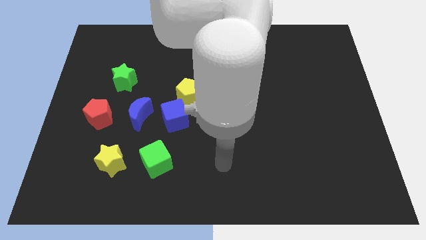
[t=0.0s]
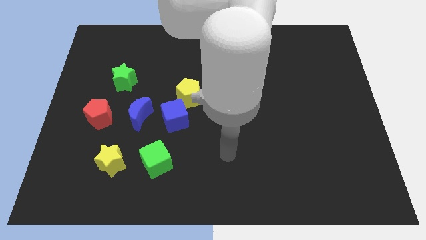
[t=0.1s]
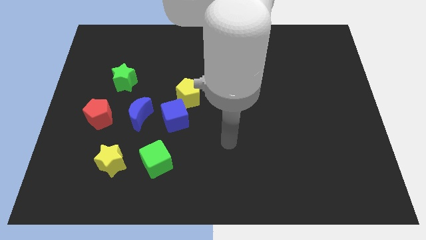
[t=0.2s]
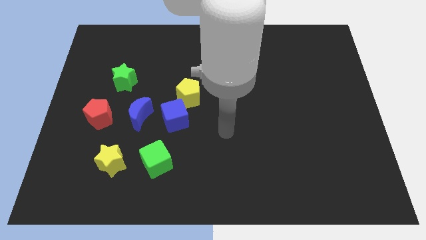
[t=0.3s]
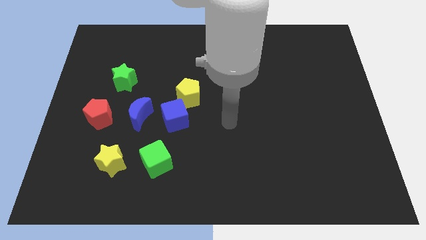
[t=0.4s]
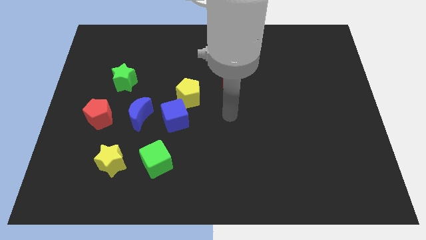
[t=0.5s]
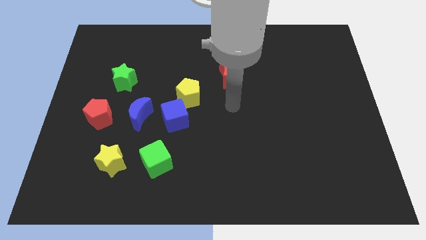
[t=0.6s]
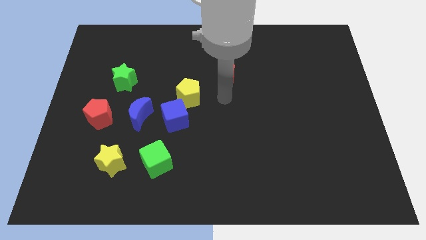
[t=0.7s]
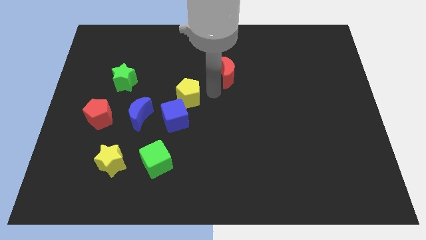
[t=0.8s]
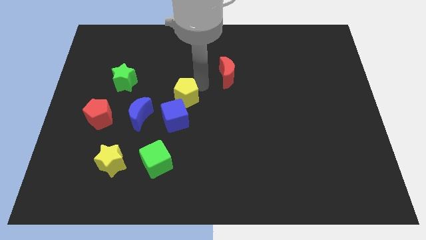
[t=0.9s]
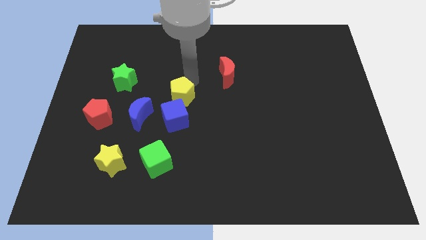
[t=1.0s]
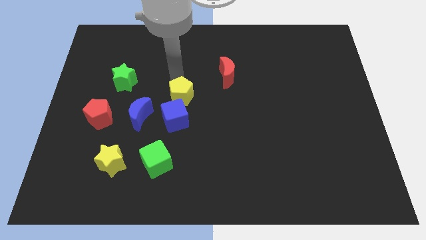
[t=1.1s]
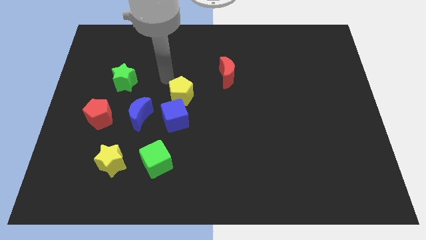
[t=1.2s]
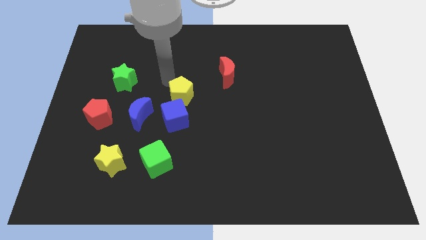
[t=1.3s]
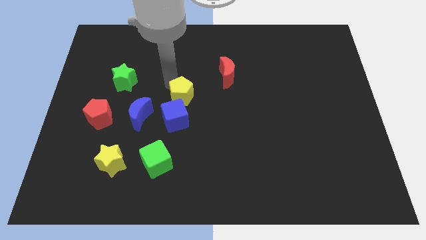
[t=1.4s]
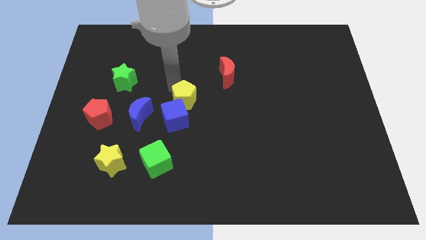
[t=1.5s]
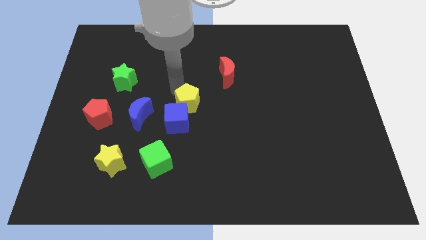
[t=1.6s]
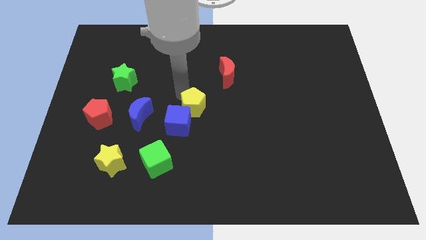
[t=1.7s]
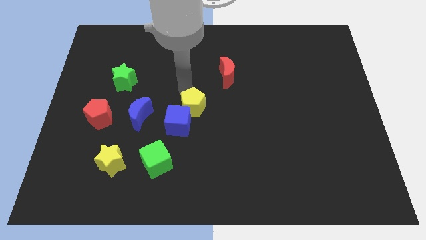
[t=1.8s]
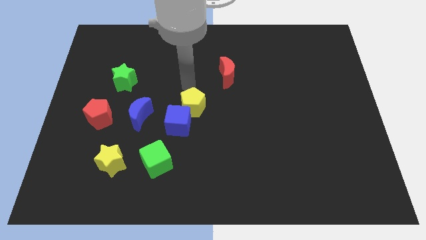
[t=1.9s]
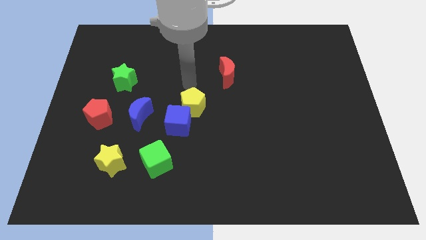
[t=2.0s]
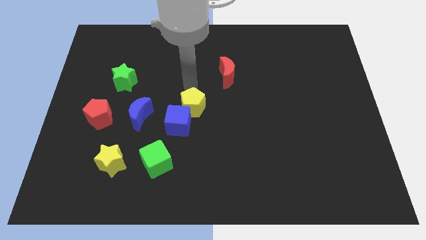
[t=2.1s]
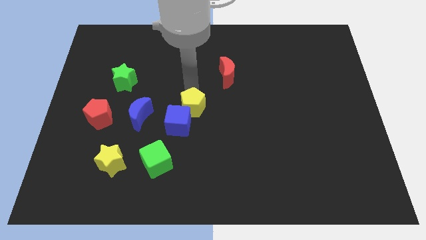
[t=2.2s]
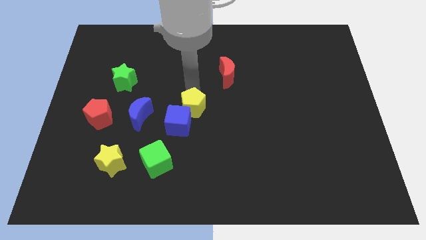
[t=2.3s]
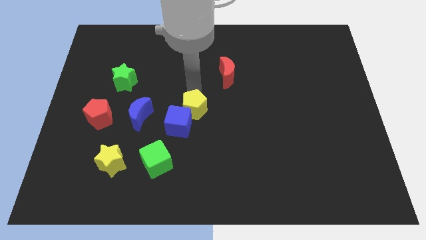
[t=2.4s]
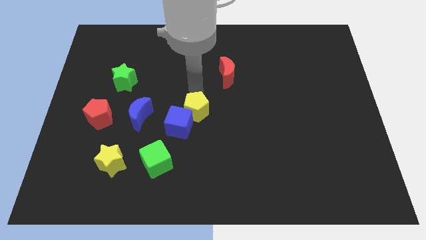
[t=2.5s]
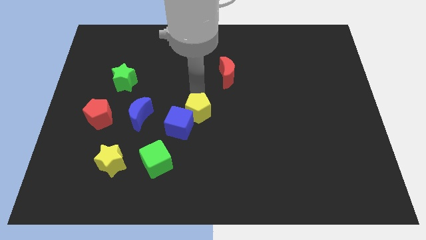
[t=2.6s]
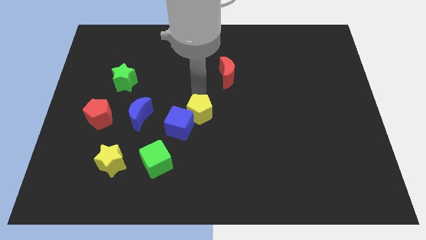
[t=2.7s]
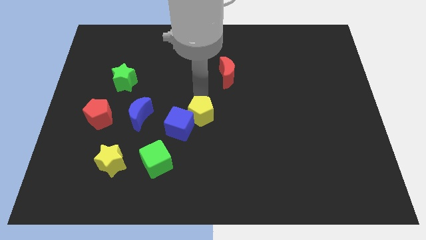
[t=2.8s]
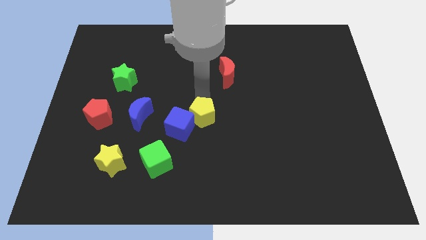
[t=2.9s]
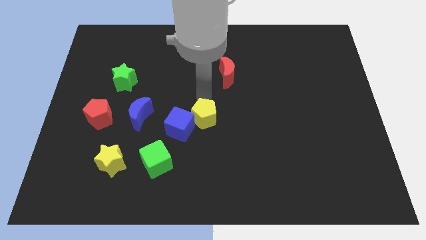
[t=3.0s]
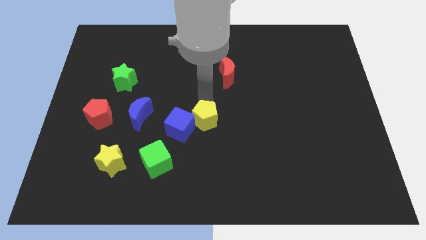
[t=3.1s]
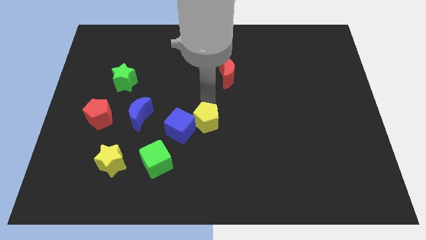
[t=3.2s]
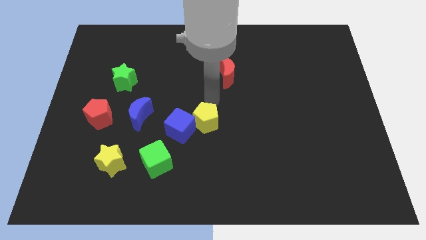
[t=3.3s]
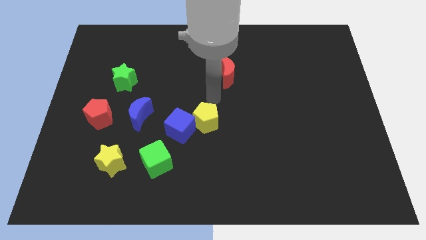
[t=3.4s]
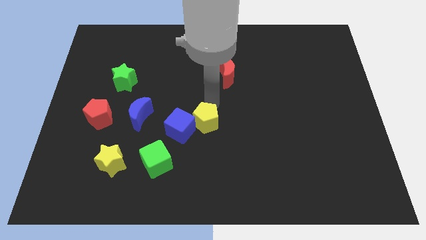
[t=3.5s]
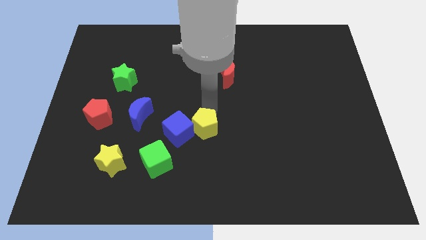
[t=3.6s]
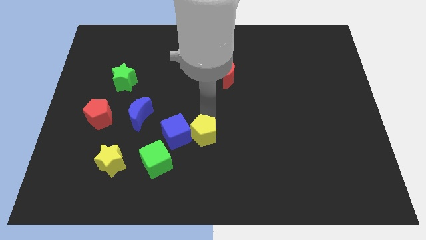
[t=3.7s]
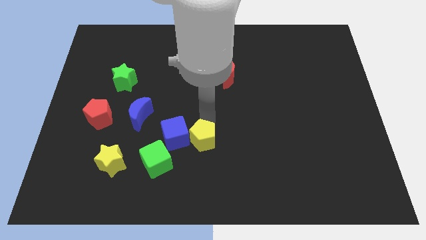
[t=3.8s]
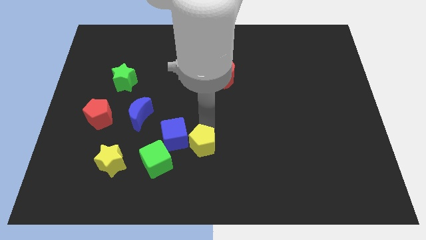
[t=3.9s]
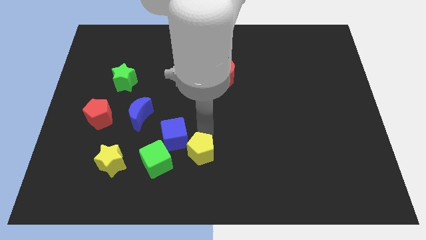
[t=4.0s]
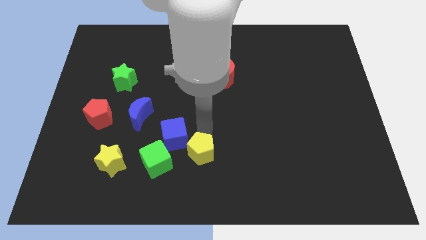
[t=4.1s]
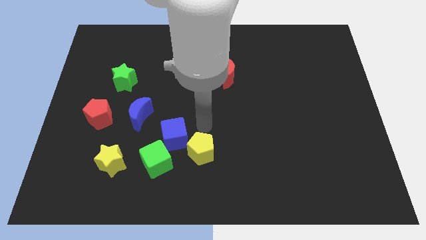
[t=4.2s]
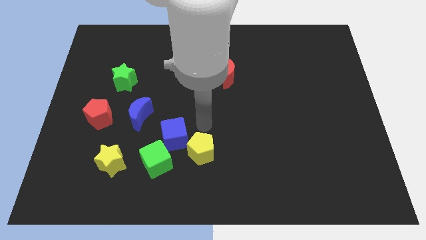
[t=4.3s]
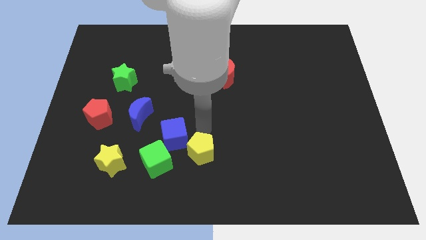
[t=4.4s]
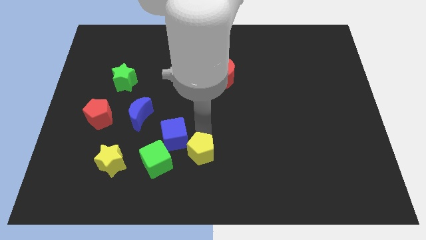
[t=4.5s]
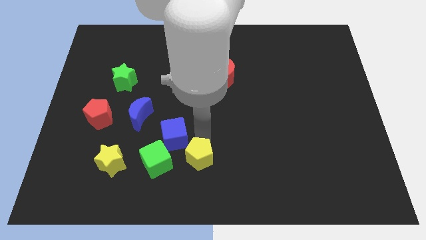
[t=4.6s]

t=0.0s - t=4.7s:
move the yellow pentagon to the bottom

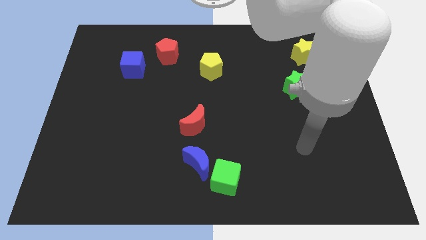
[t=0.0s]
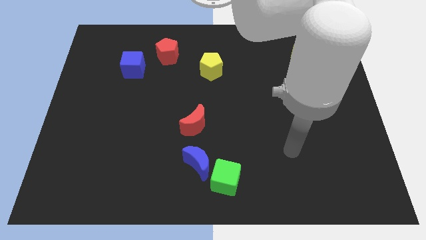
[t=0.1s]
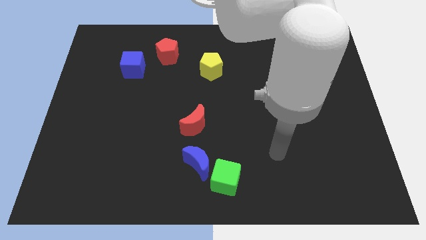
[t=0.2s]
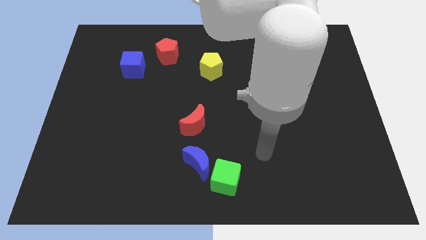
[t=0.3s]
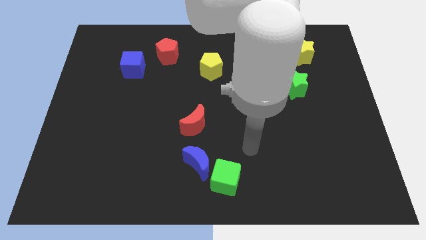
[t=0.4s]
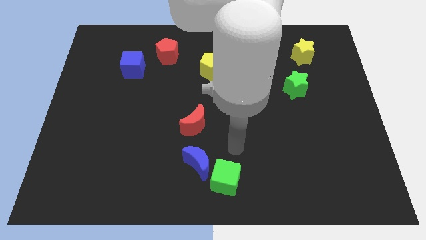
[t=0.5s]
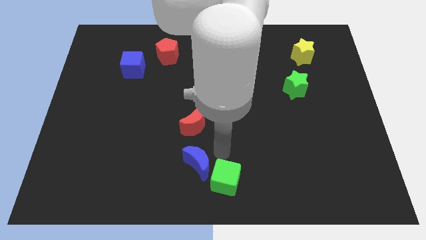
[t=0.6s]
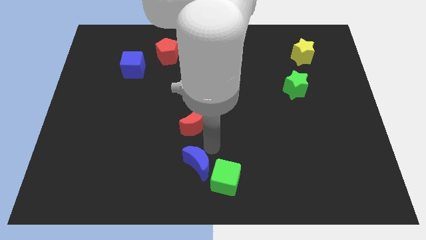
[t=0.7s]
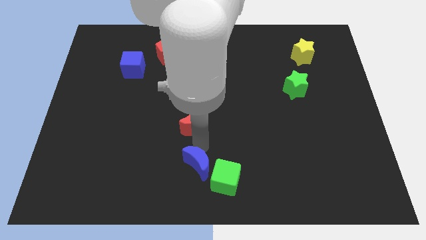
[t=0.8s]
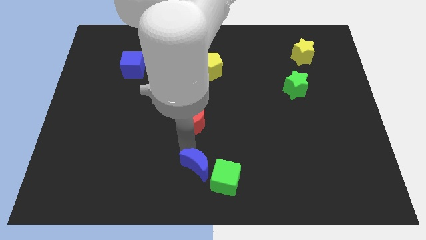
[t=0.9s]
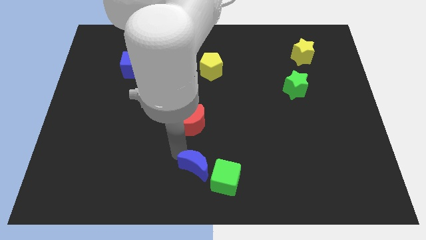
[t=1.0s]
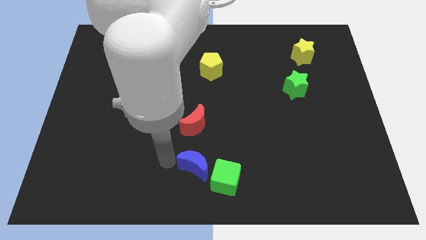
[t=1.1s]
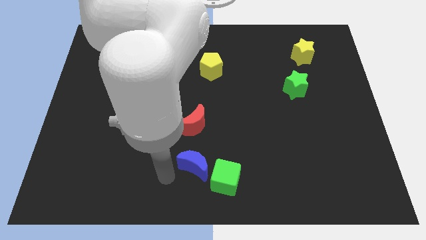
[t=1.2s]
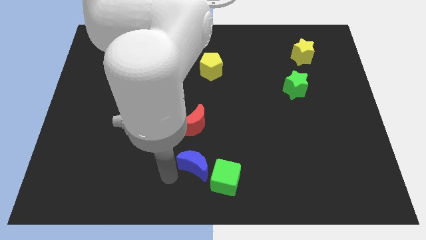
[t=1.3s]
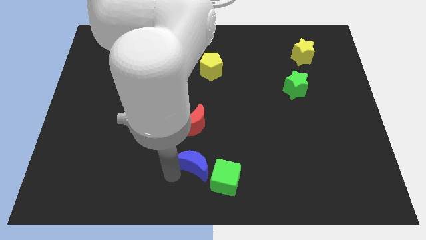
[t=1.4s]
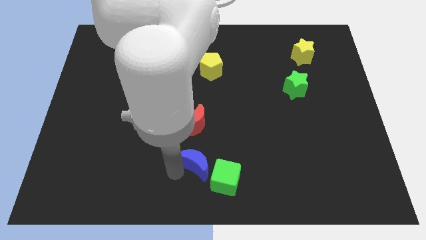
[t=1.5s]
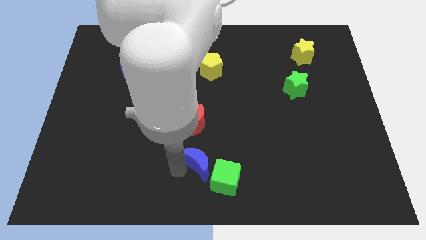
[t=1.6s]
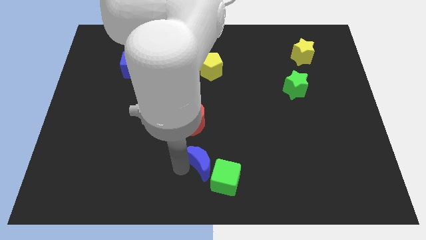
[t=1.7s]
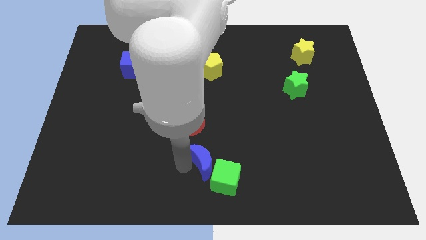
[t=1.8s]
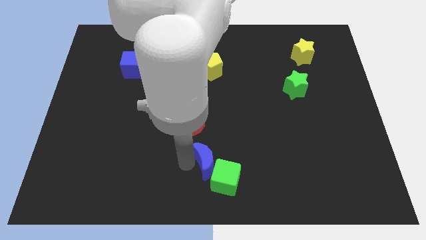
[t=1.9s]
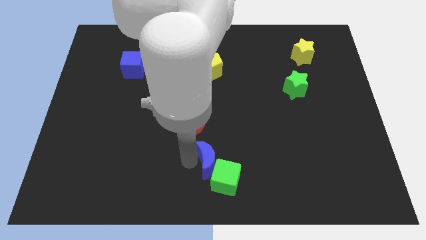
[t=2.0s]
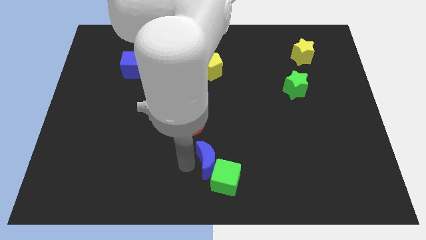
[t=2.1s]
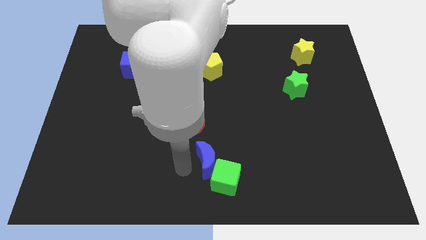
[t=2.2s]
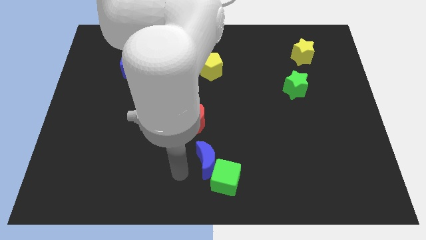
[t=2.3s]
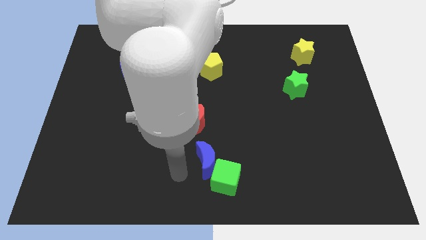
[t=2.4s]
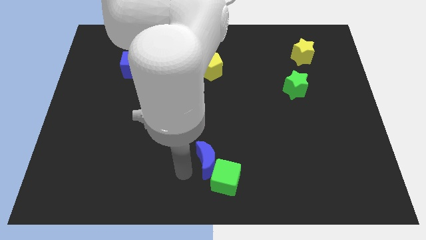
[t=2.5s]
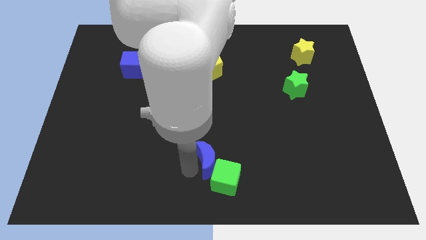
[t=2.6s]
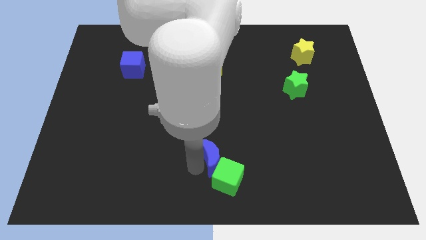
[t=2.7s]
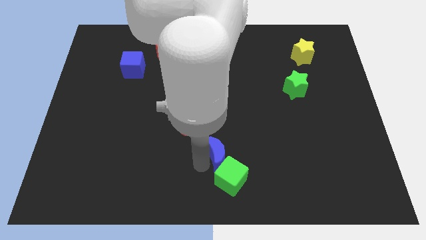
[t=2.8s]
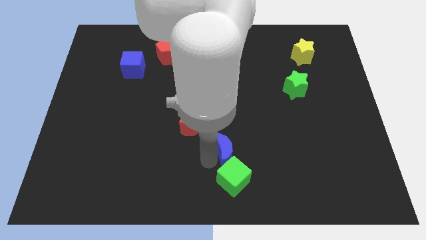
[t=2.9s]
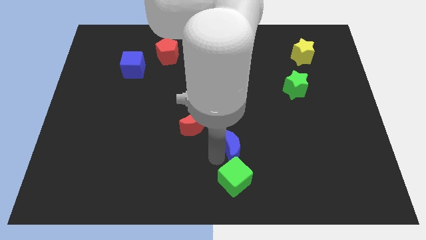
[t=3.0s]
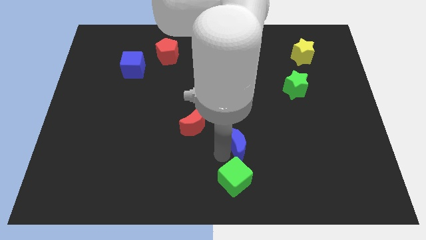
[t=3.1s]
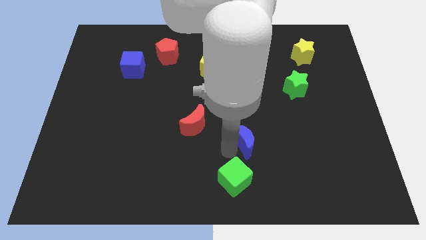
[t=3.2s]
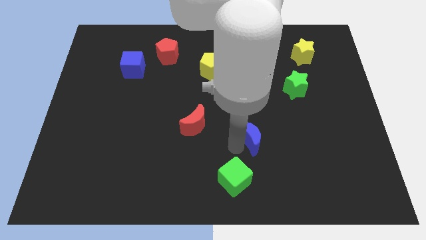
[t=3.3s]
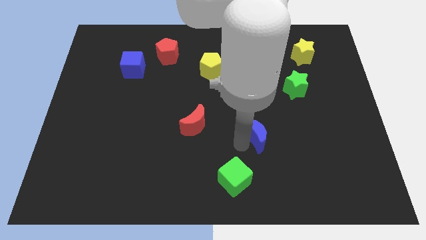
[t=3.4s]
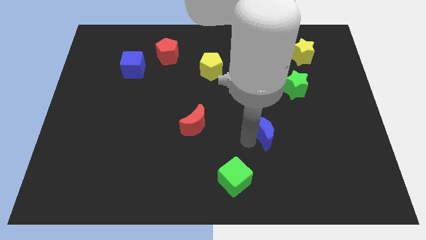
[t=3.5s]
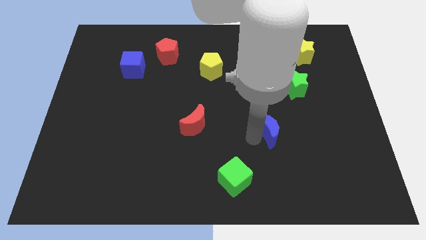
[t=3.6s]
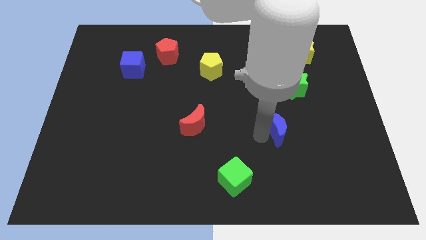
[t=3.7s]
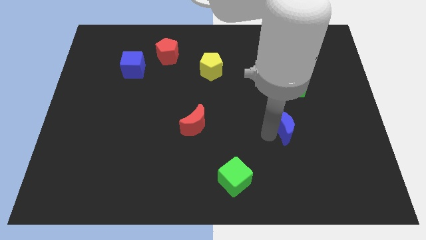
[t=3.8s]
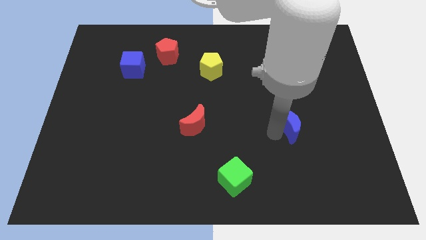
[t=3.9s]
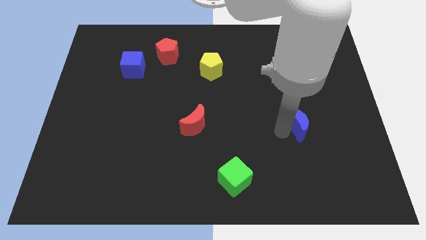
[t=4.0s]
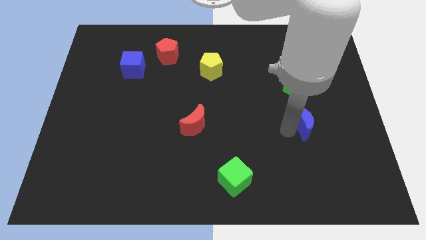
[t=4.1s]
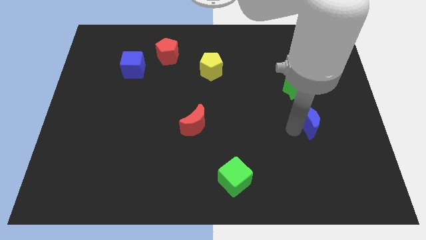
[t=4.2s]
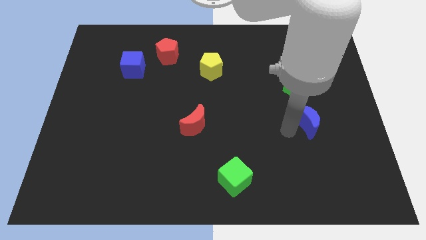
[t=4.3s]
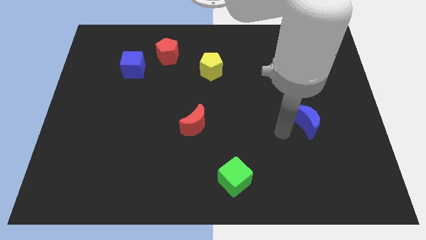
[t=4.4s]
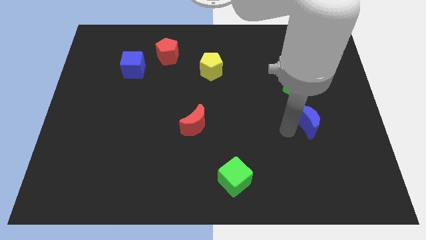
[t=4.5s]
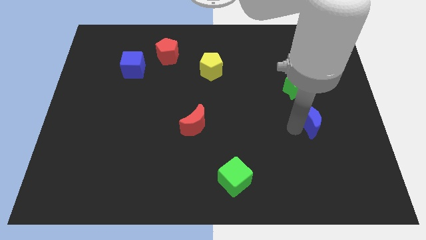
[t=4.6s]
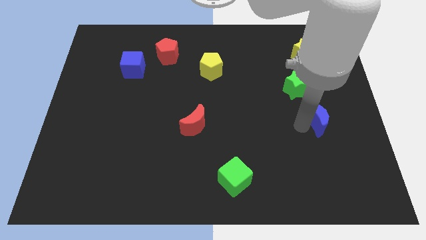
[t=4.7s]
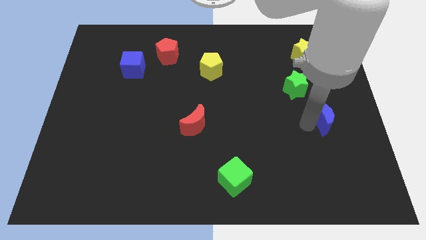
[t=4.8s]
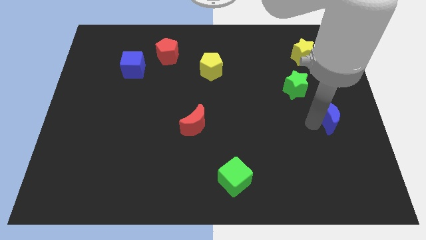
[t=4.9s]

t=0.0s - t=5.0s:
slide the blue moon to the right side
